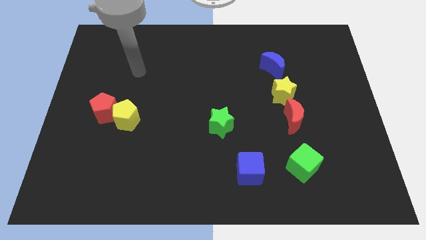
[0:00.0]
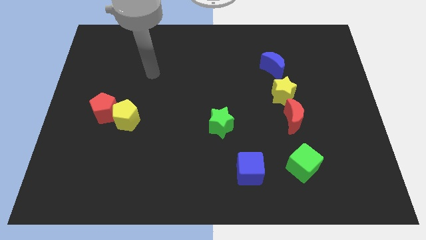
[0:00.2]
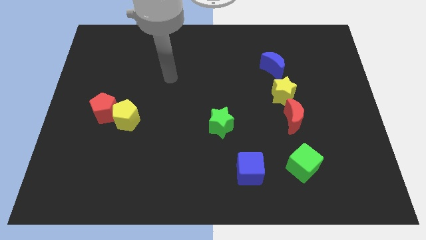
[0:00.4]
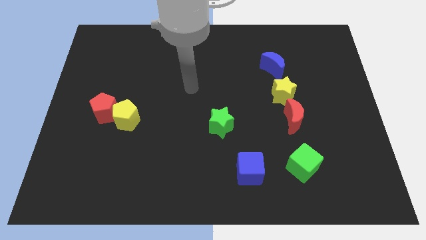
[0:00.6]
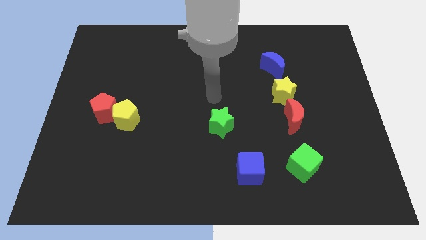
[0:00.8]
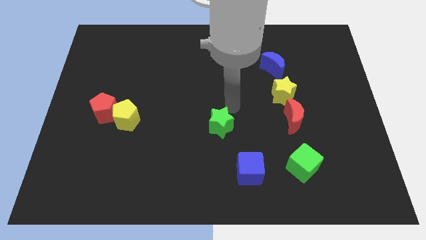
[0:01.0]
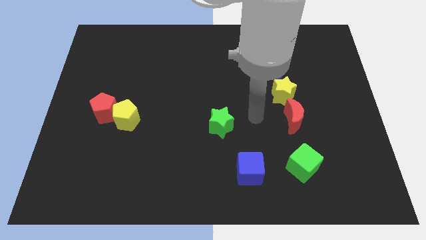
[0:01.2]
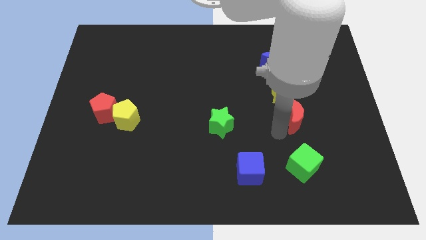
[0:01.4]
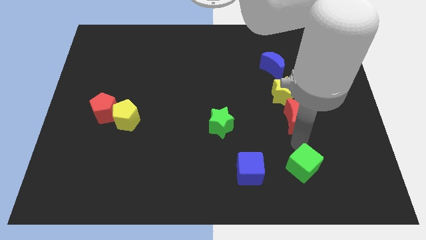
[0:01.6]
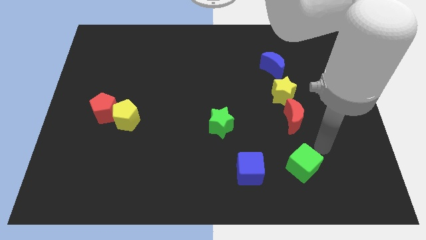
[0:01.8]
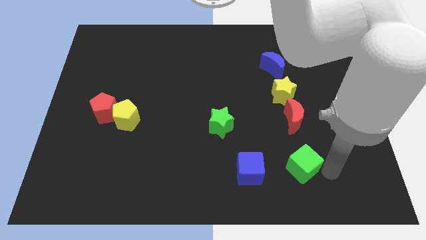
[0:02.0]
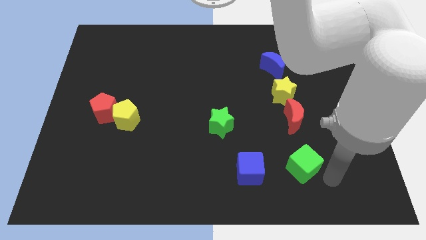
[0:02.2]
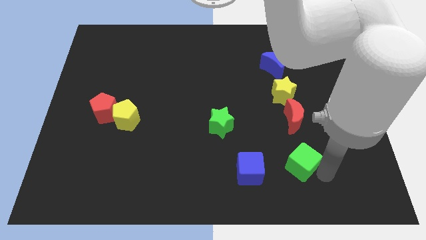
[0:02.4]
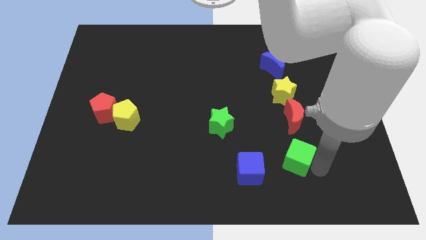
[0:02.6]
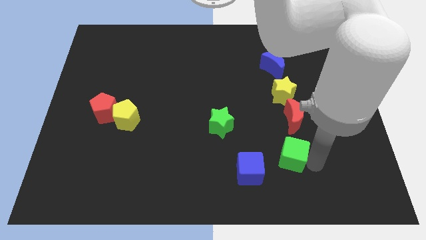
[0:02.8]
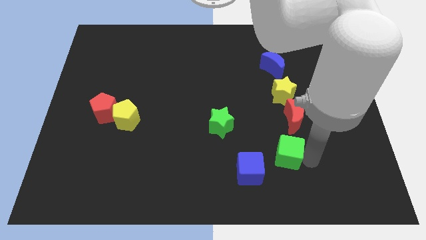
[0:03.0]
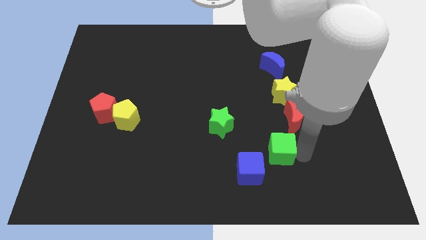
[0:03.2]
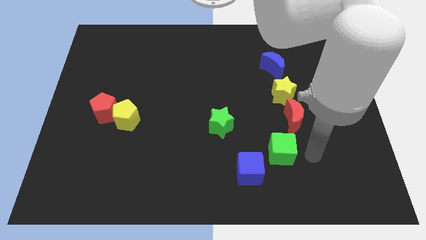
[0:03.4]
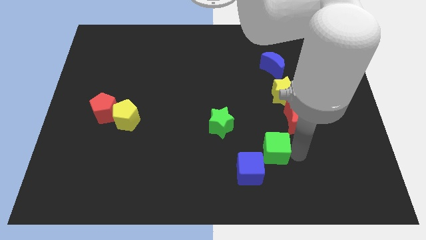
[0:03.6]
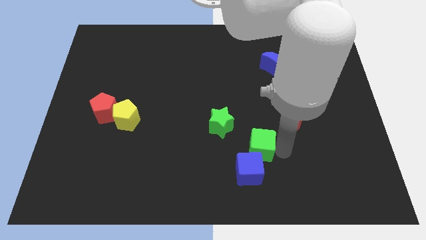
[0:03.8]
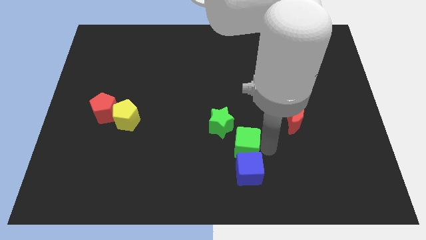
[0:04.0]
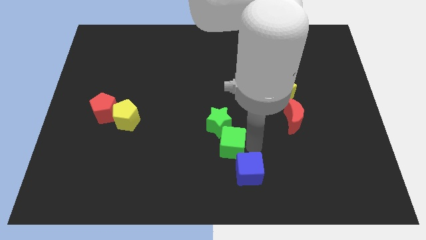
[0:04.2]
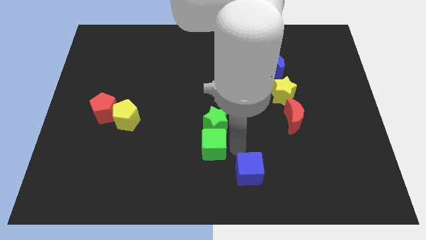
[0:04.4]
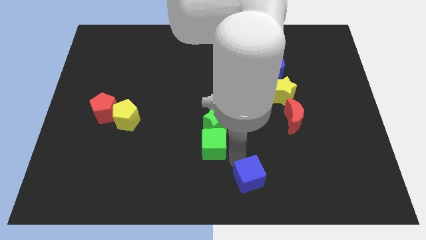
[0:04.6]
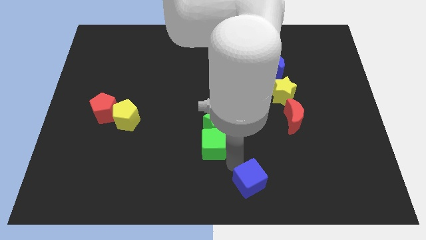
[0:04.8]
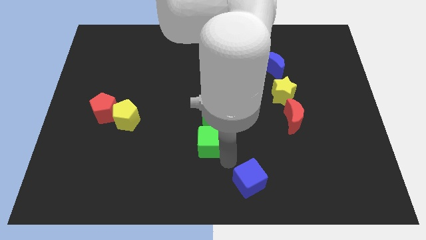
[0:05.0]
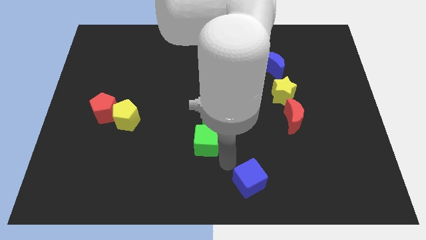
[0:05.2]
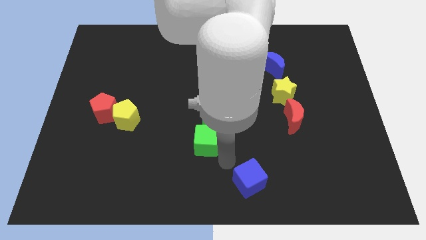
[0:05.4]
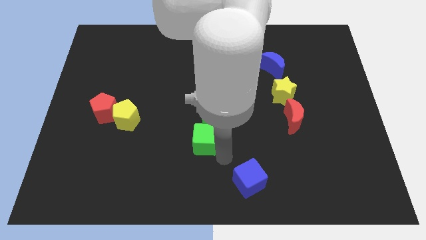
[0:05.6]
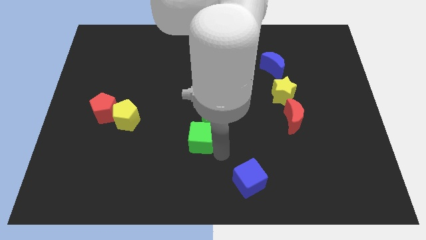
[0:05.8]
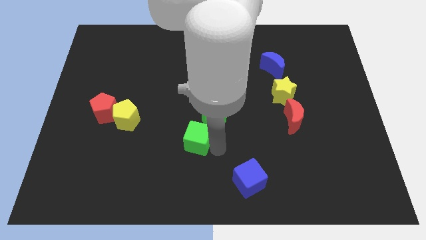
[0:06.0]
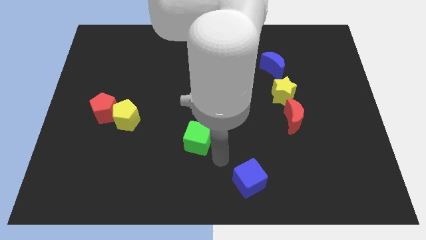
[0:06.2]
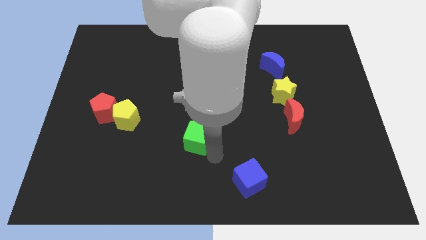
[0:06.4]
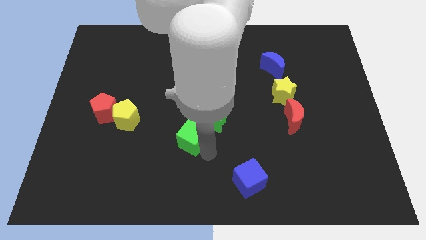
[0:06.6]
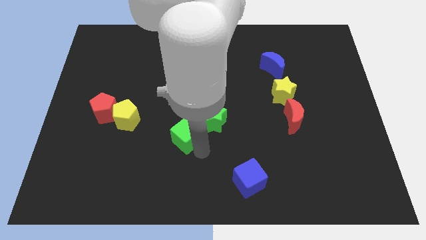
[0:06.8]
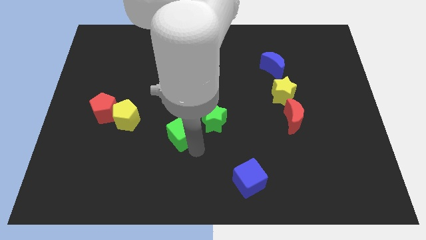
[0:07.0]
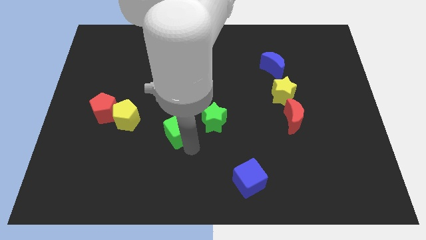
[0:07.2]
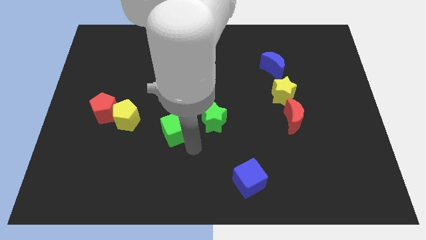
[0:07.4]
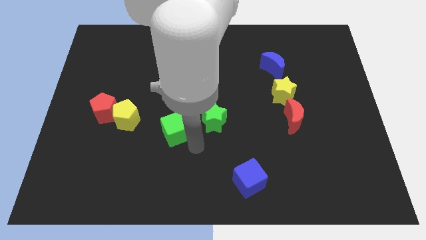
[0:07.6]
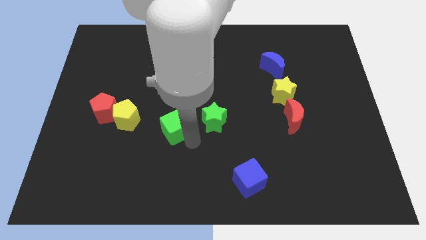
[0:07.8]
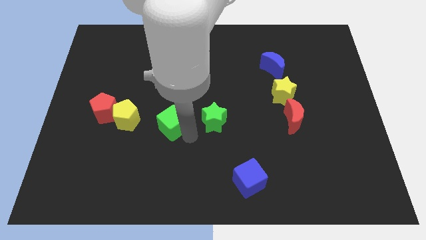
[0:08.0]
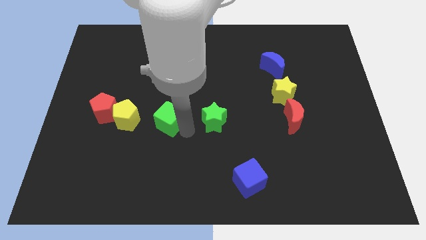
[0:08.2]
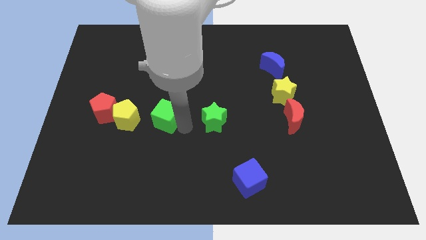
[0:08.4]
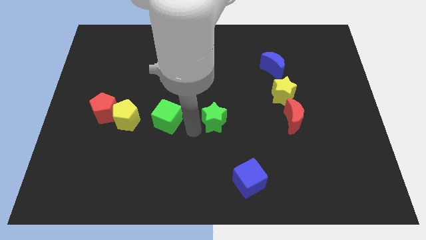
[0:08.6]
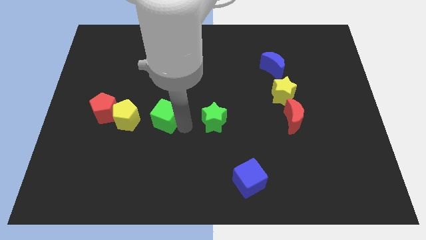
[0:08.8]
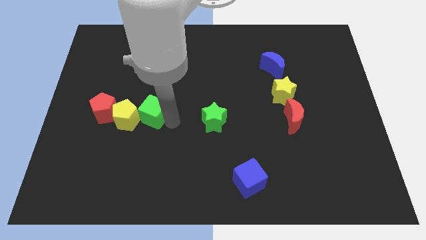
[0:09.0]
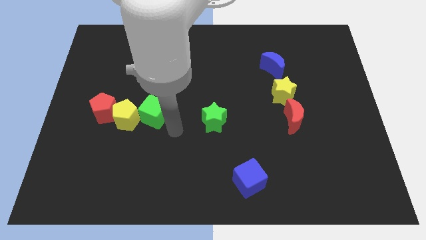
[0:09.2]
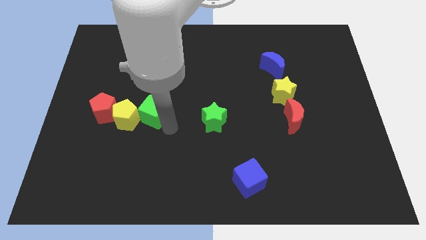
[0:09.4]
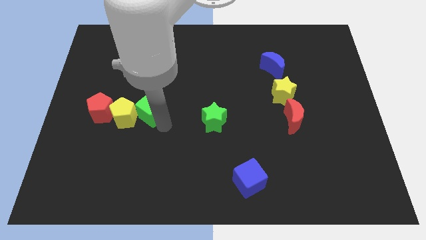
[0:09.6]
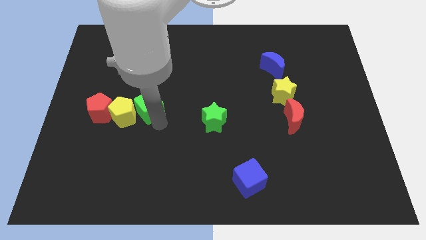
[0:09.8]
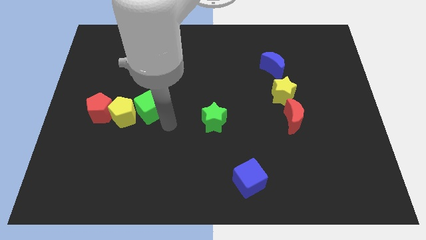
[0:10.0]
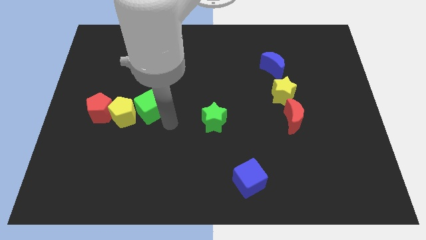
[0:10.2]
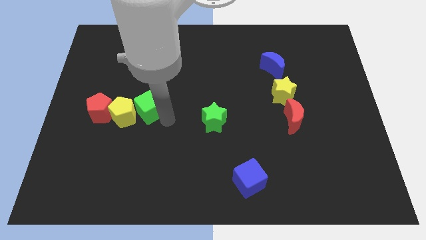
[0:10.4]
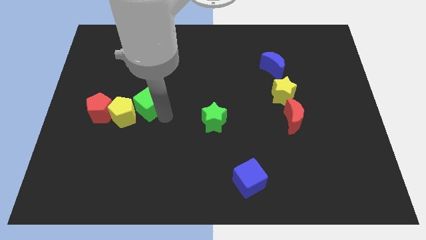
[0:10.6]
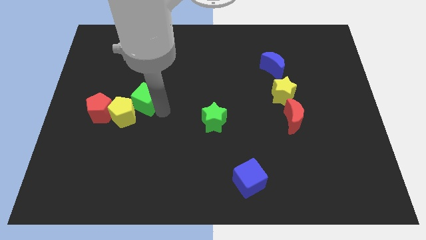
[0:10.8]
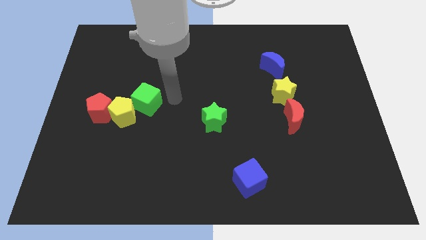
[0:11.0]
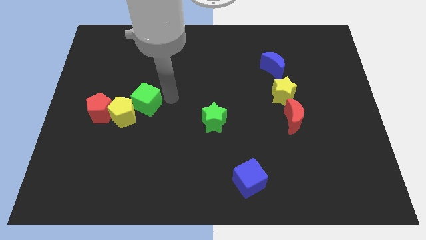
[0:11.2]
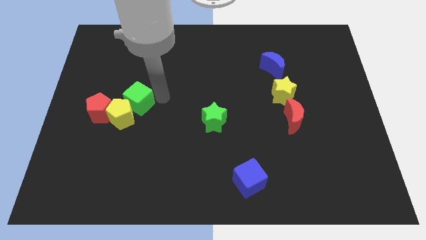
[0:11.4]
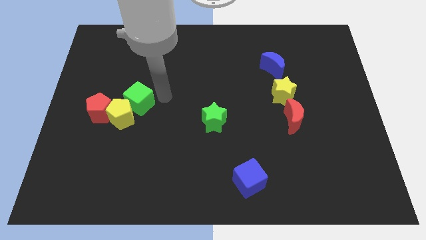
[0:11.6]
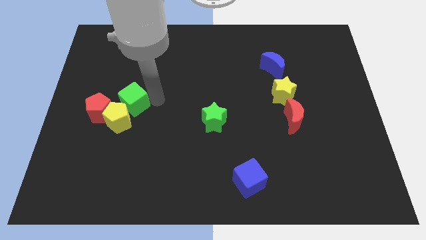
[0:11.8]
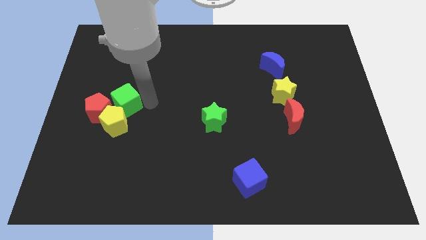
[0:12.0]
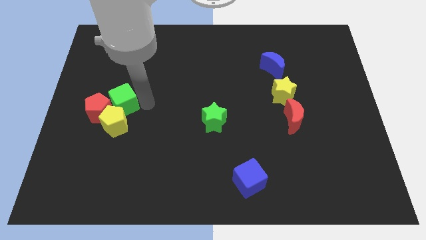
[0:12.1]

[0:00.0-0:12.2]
slide the green cube close to the red pentagon
